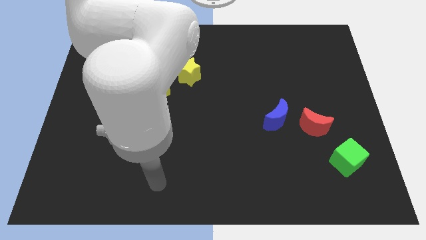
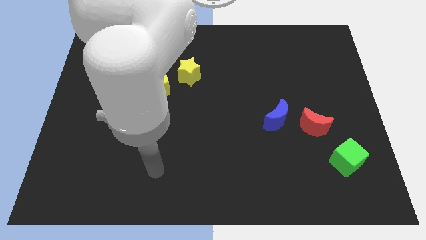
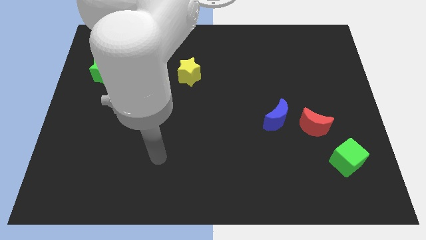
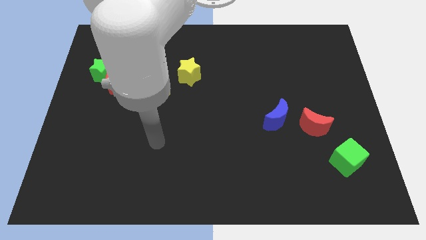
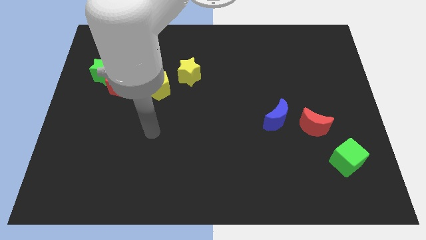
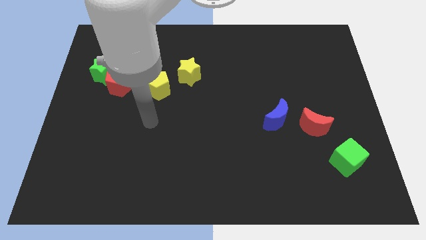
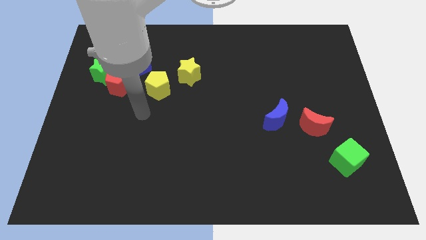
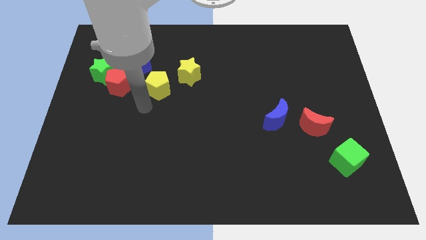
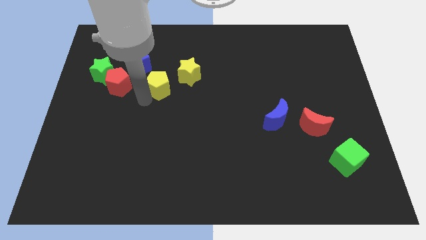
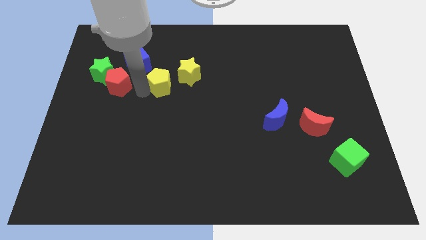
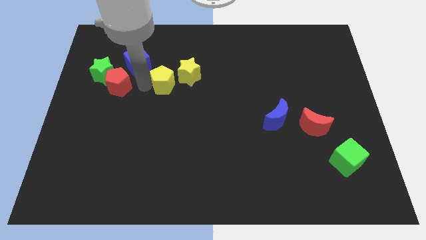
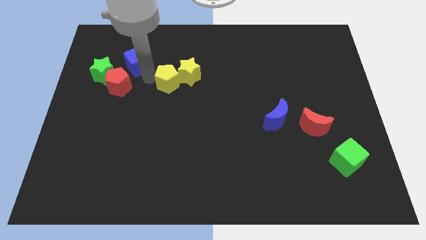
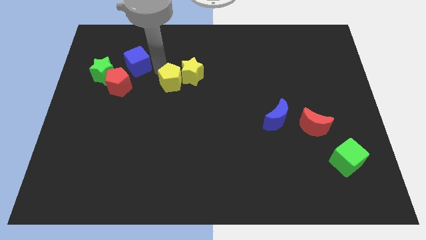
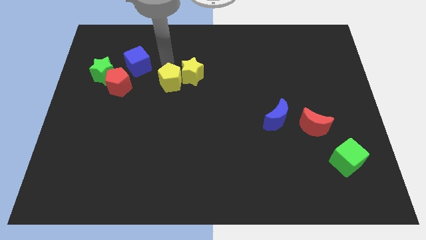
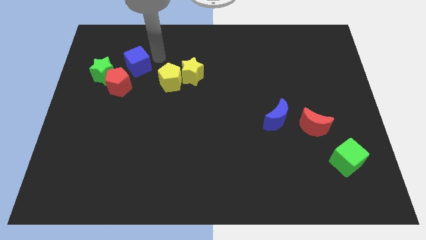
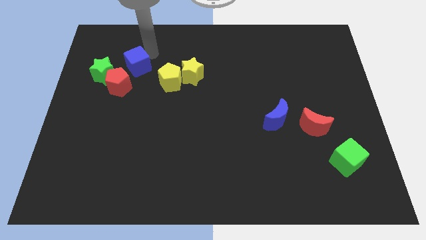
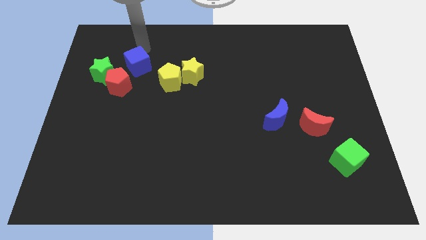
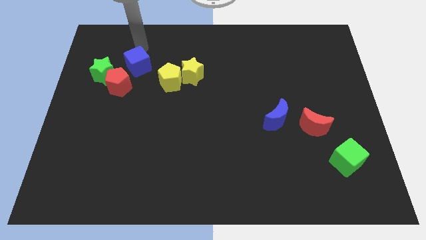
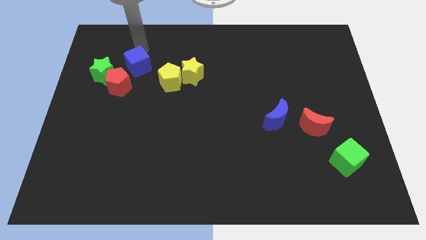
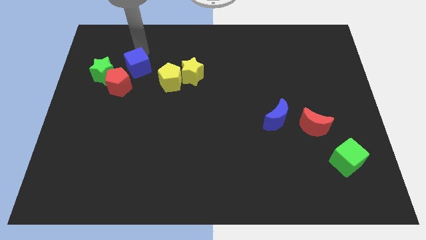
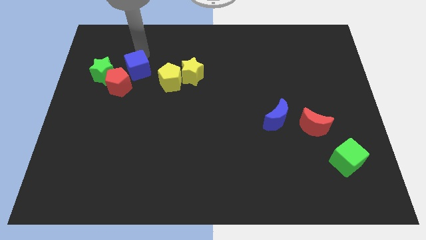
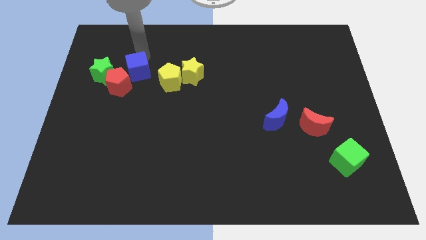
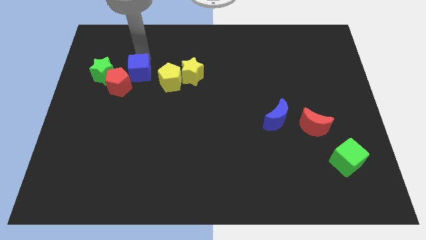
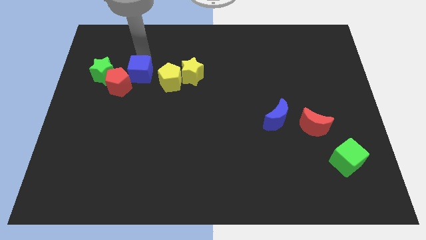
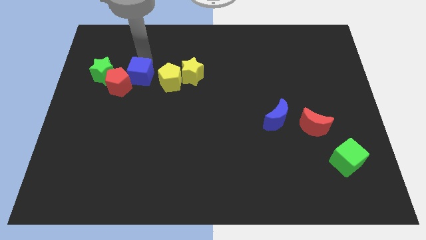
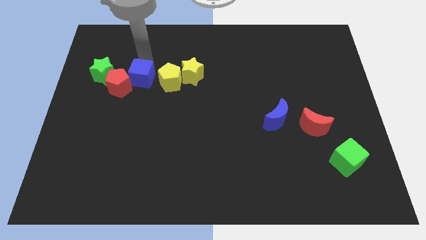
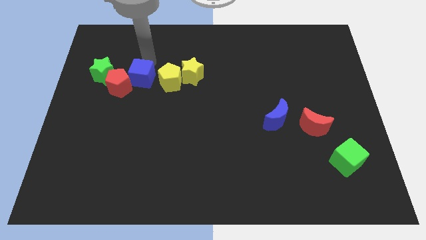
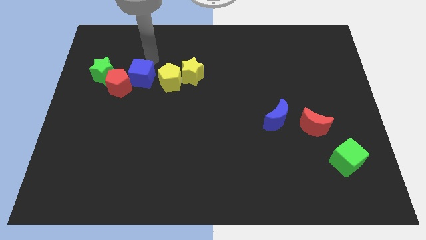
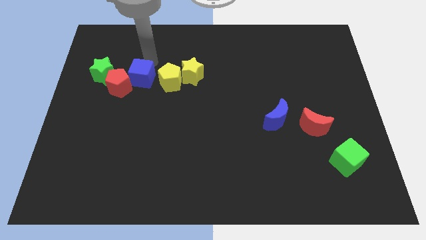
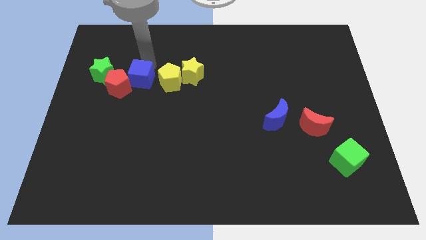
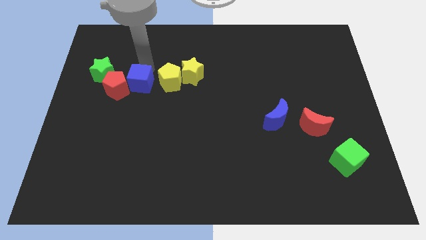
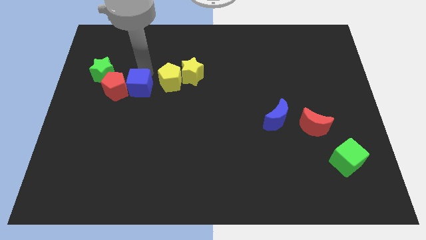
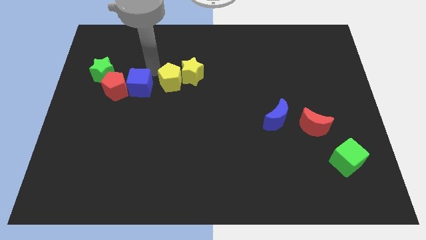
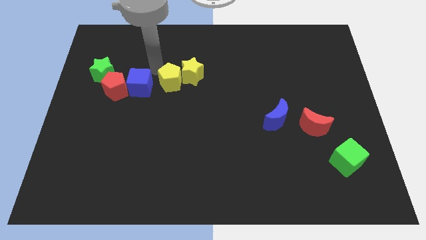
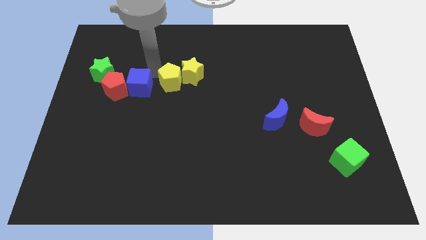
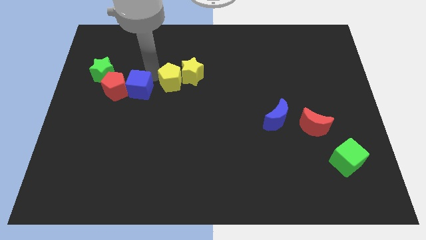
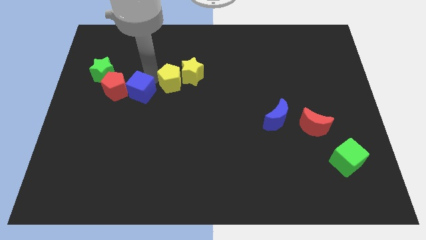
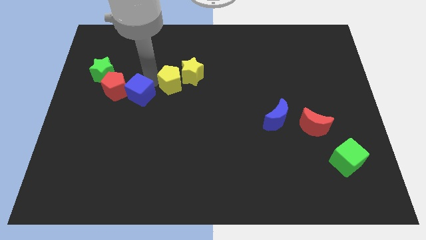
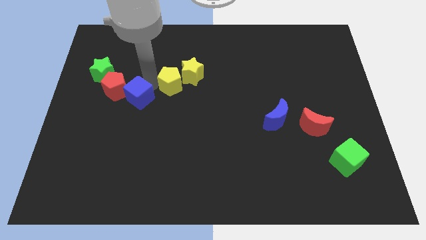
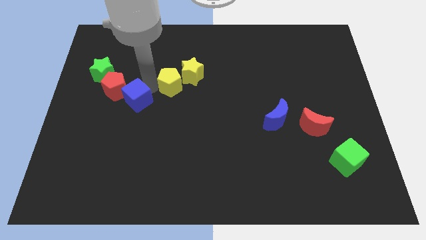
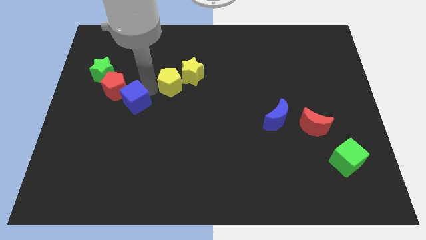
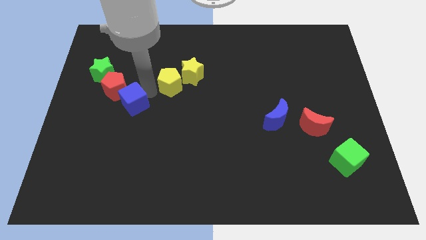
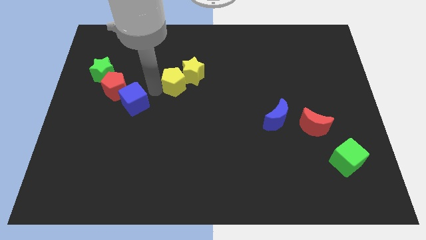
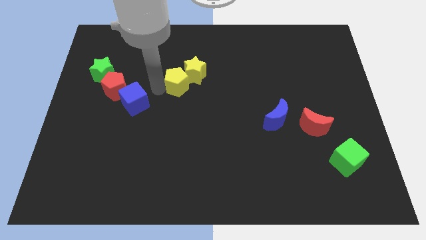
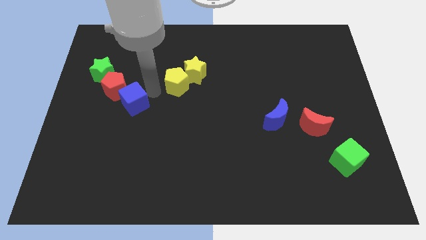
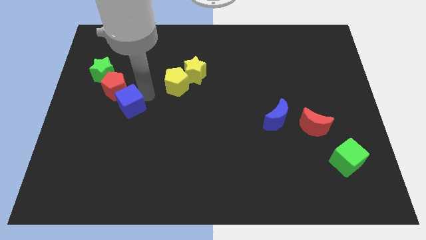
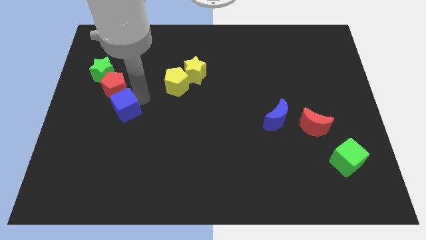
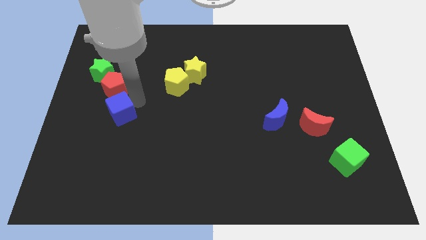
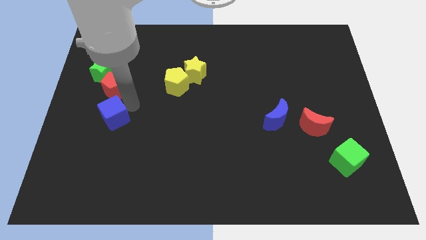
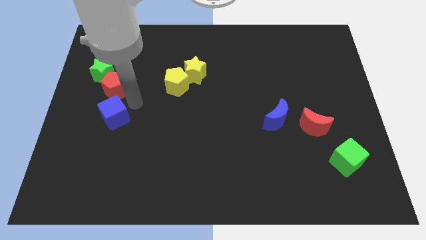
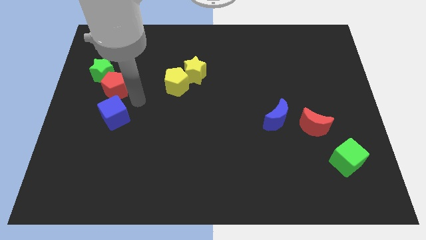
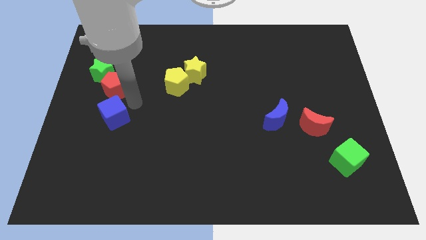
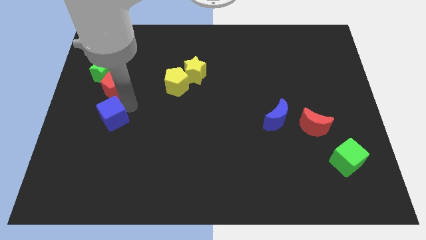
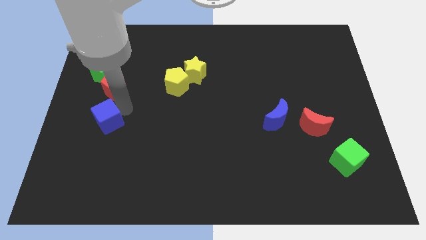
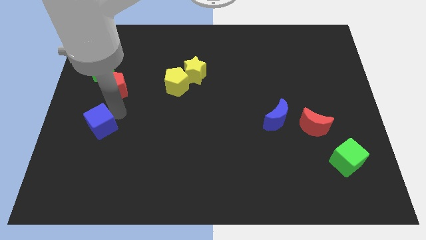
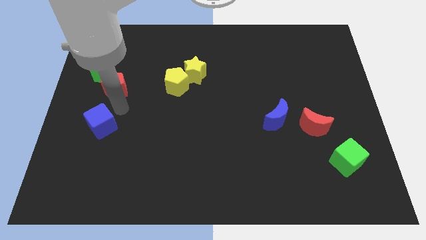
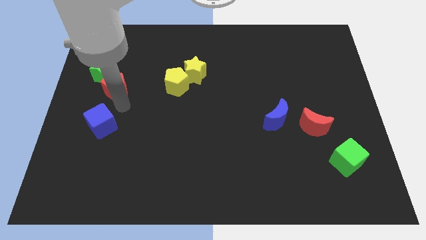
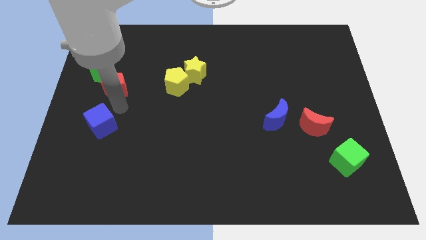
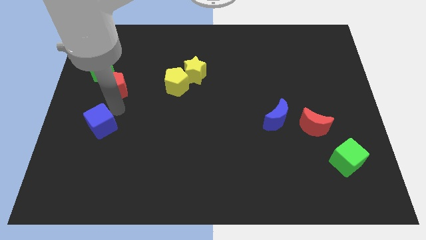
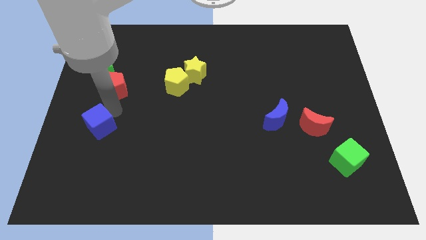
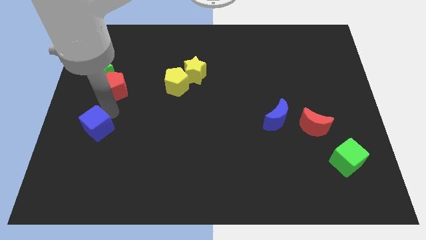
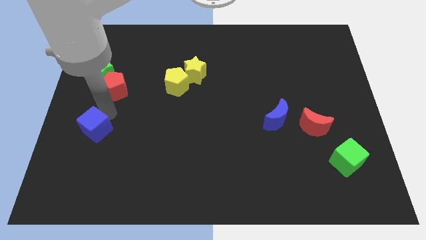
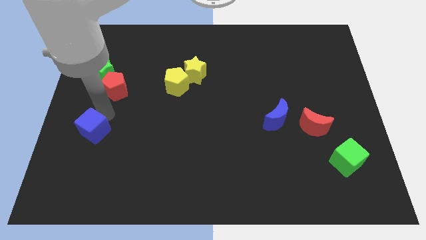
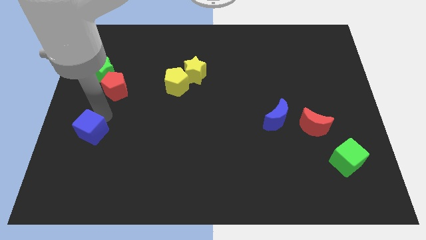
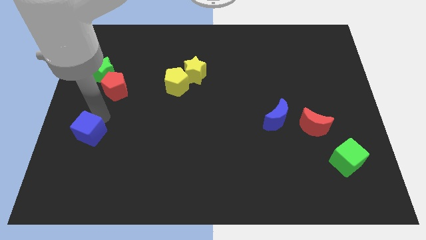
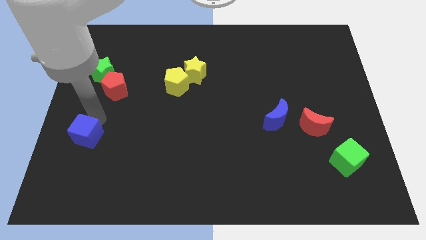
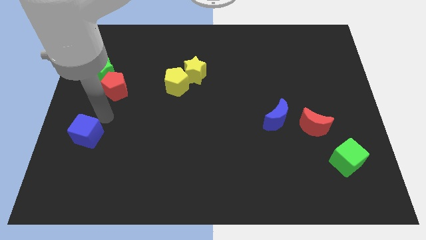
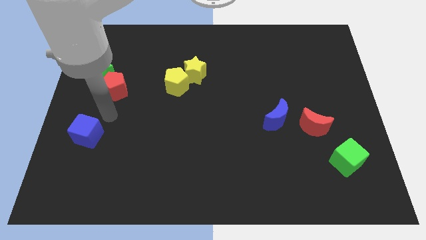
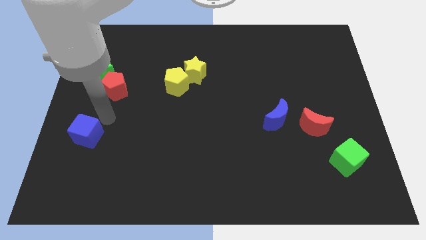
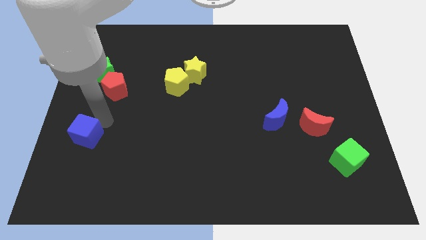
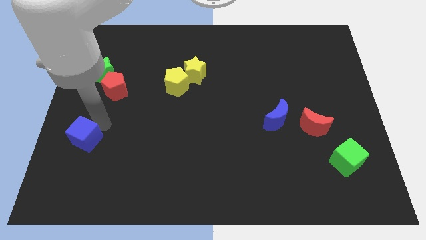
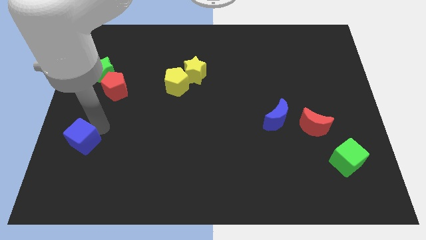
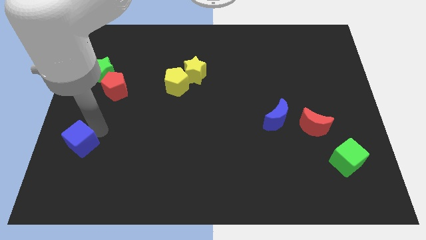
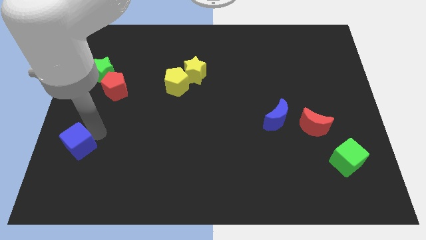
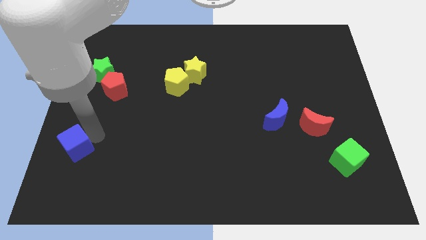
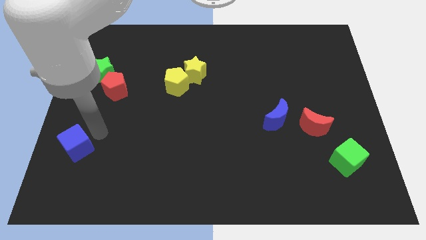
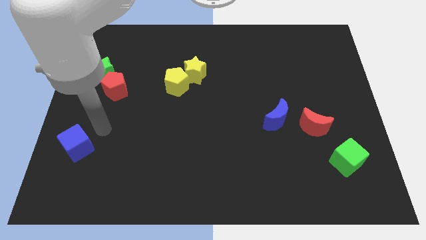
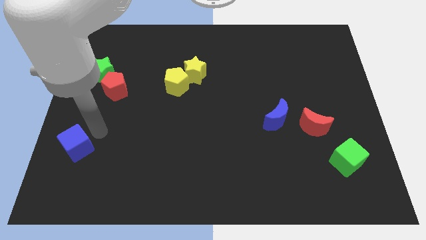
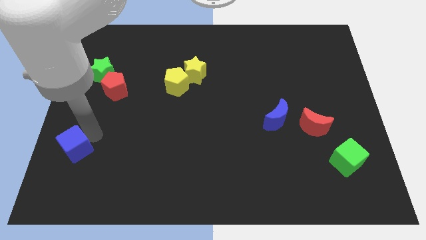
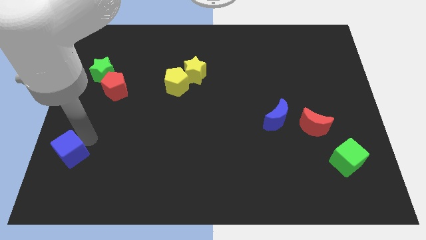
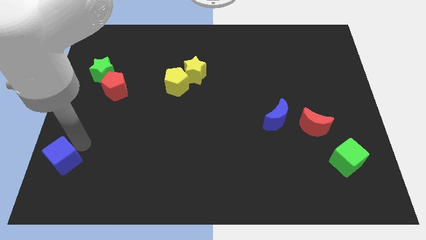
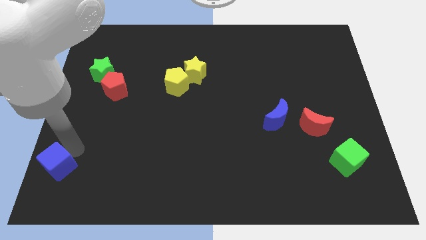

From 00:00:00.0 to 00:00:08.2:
move the blue cube to the bottom left
